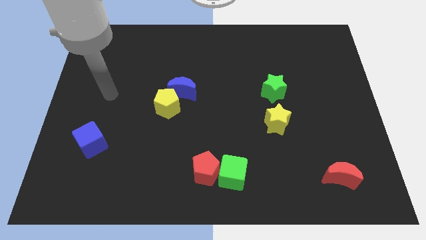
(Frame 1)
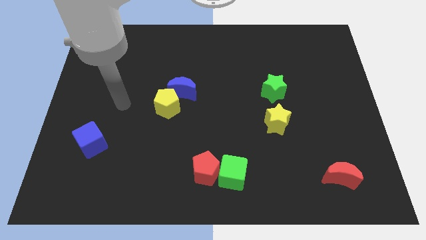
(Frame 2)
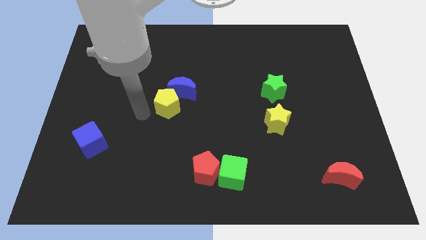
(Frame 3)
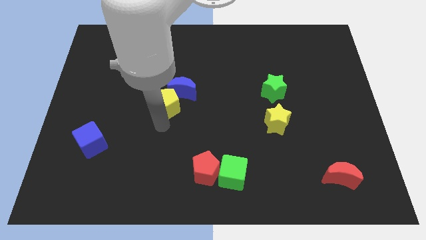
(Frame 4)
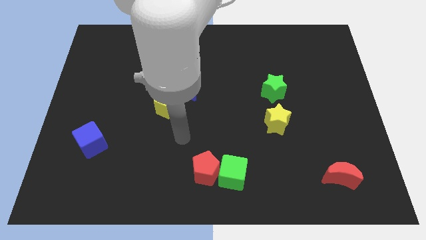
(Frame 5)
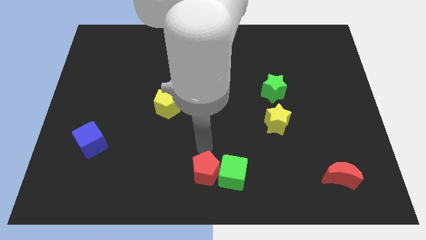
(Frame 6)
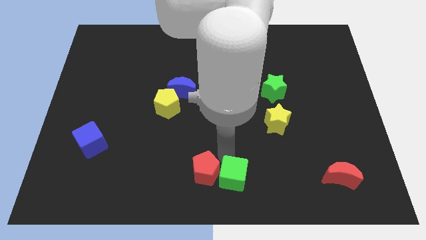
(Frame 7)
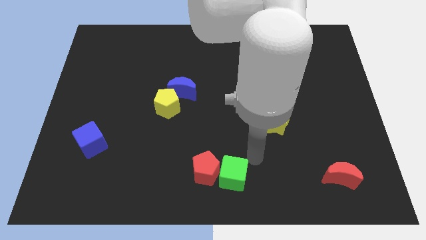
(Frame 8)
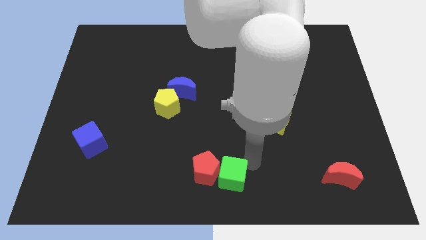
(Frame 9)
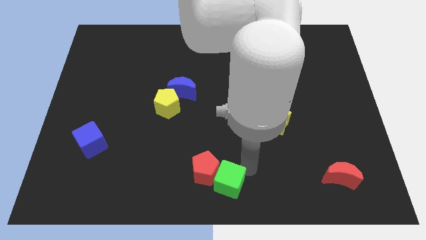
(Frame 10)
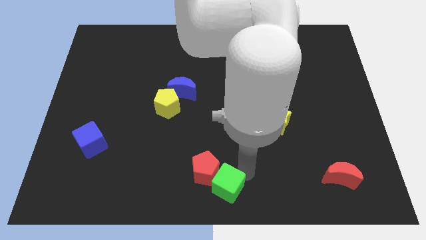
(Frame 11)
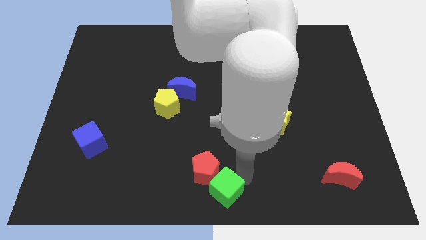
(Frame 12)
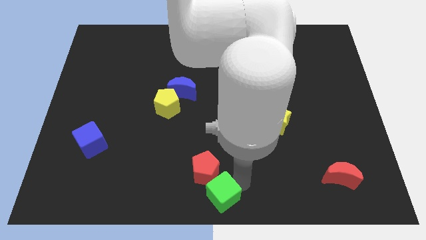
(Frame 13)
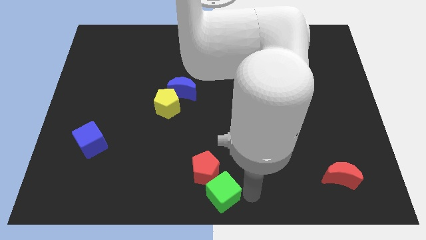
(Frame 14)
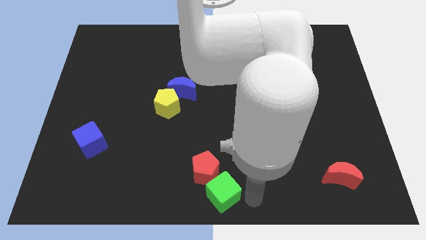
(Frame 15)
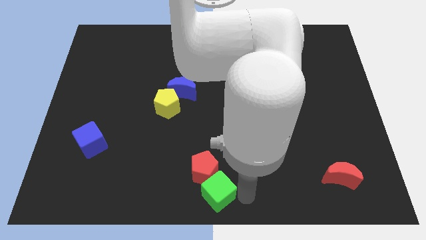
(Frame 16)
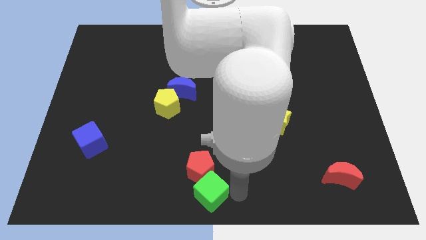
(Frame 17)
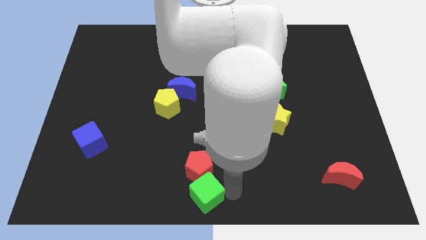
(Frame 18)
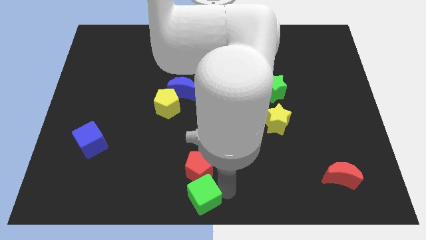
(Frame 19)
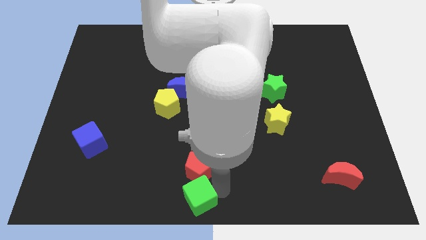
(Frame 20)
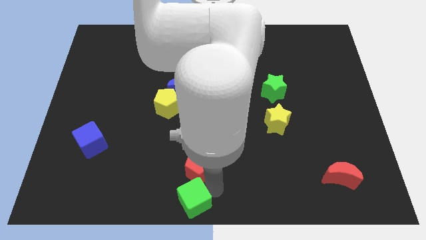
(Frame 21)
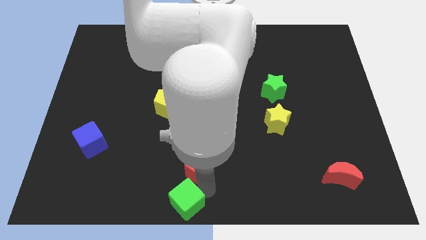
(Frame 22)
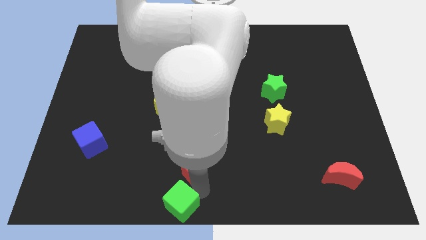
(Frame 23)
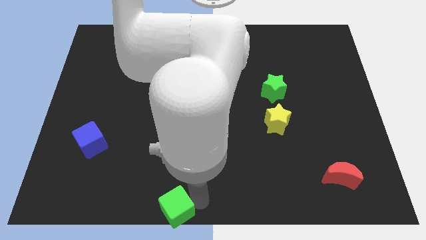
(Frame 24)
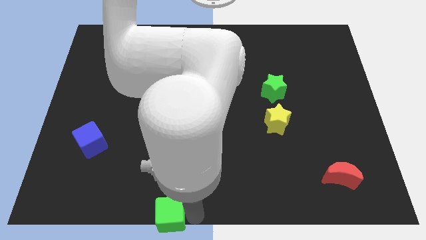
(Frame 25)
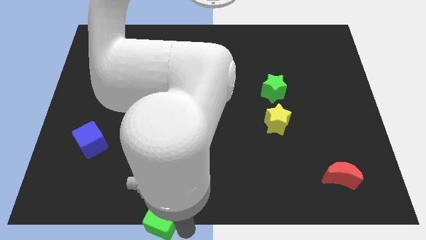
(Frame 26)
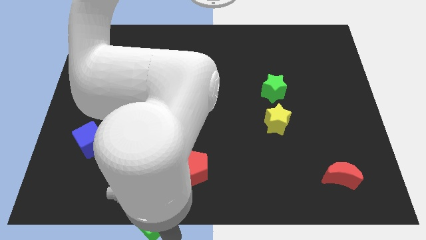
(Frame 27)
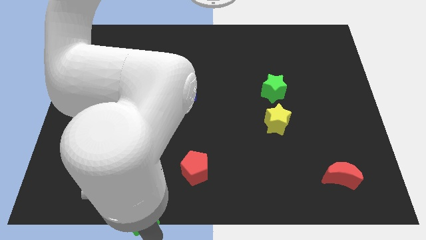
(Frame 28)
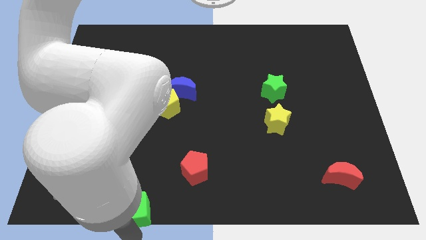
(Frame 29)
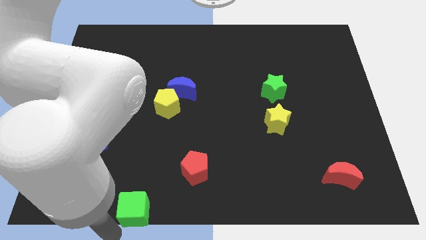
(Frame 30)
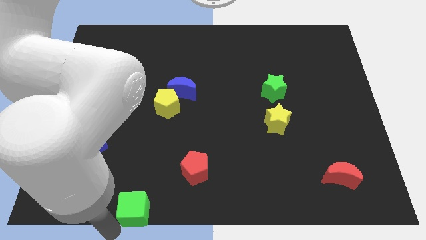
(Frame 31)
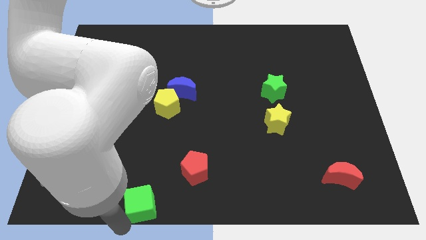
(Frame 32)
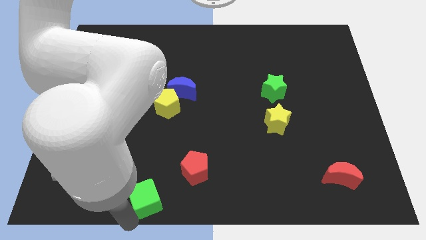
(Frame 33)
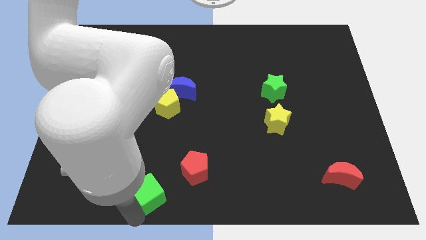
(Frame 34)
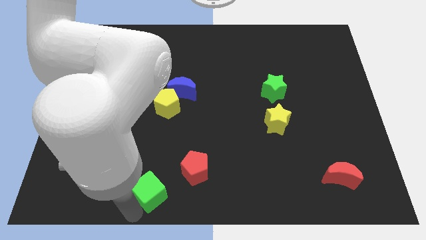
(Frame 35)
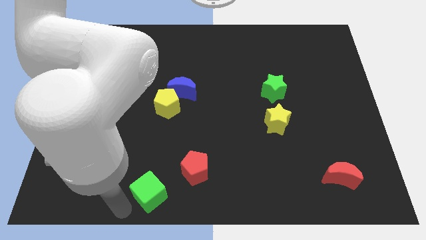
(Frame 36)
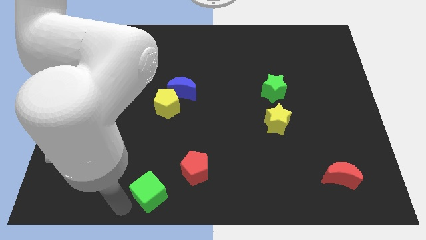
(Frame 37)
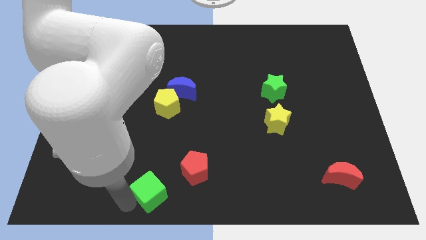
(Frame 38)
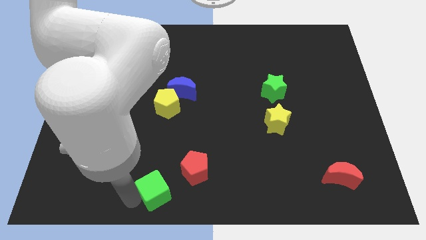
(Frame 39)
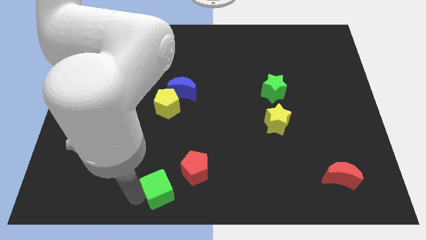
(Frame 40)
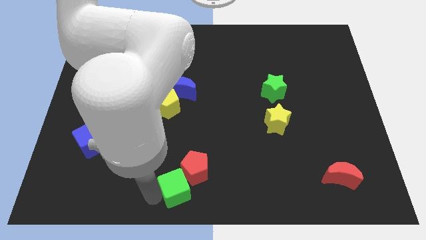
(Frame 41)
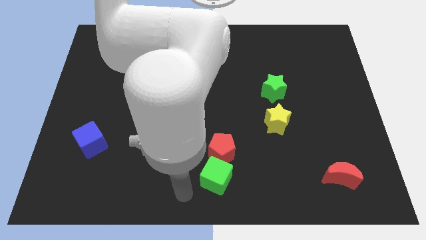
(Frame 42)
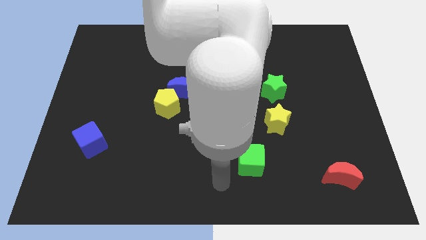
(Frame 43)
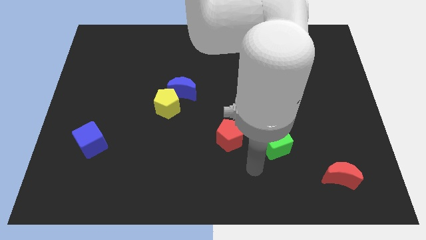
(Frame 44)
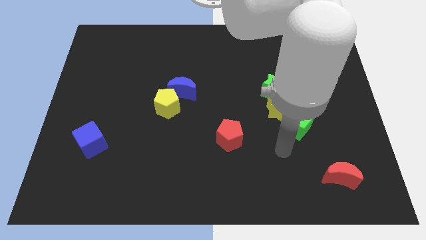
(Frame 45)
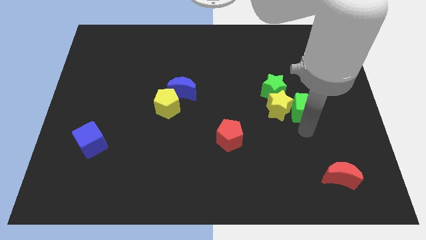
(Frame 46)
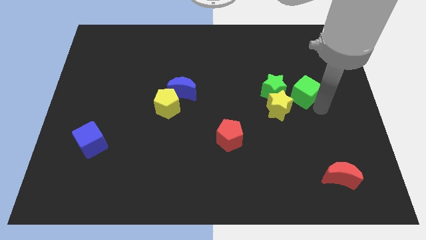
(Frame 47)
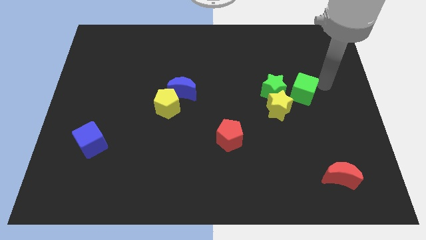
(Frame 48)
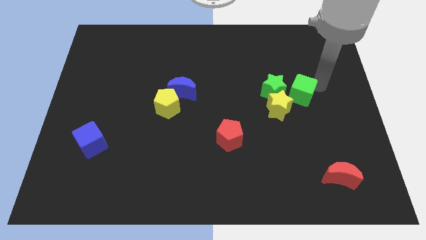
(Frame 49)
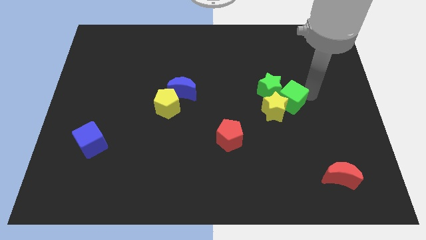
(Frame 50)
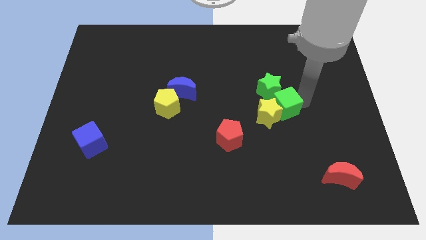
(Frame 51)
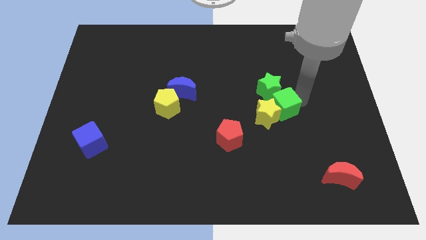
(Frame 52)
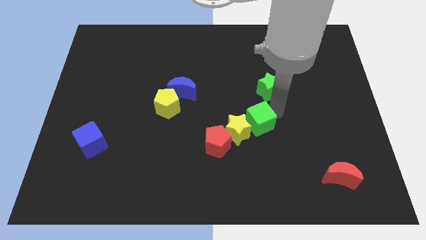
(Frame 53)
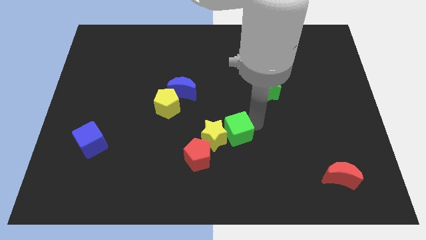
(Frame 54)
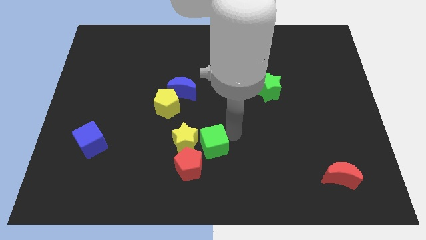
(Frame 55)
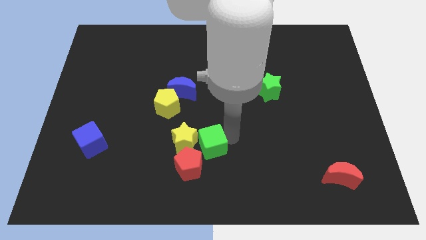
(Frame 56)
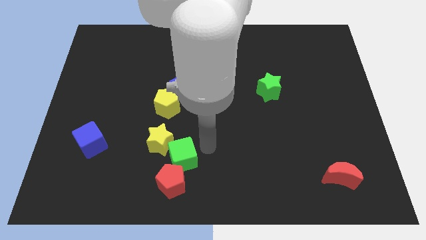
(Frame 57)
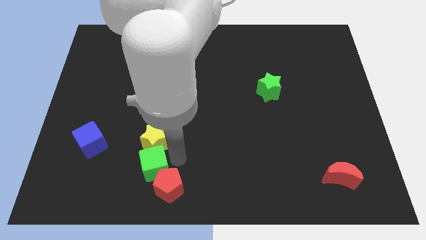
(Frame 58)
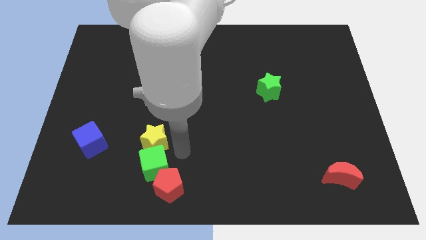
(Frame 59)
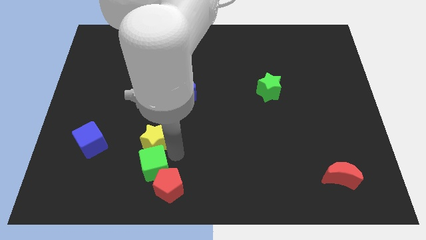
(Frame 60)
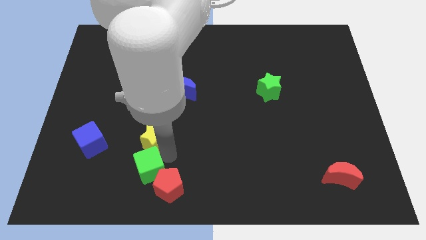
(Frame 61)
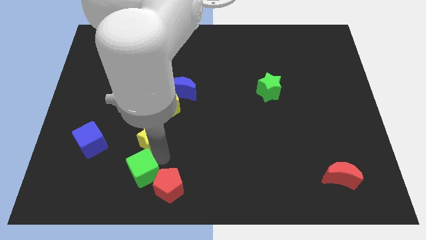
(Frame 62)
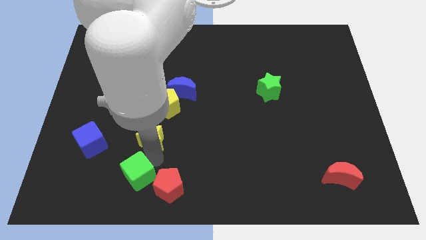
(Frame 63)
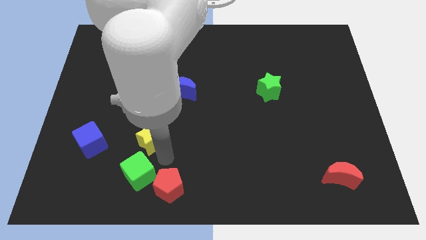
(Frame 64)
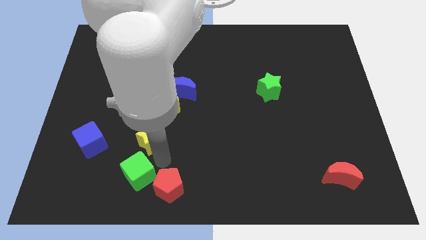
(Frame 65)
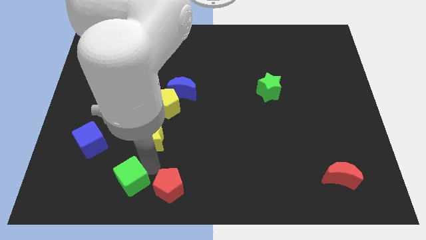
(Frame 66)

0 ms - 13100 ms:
slide the green cube to the left

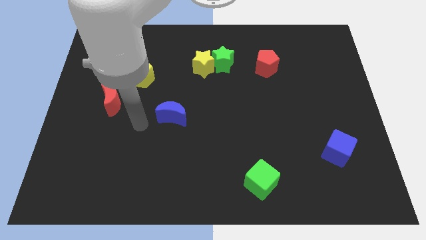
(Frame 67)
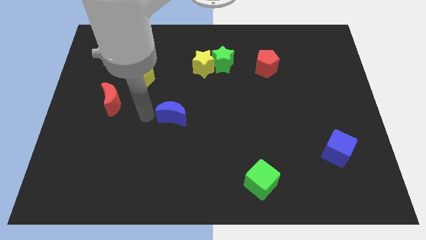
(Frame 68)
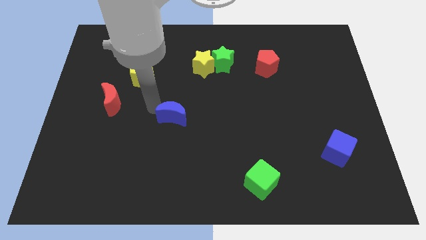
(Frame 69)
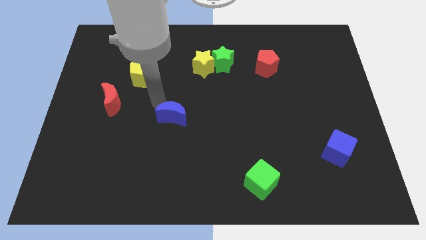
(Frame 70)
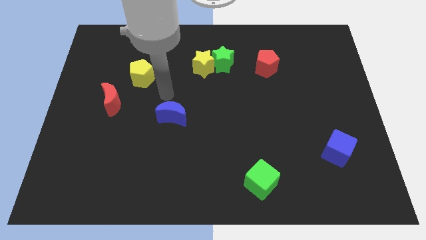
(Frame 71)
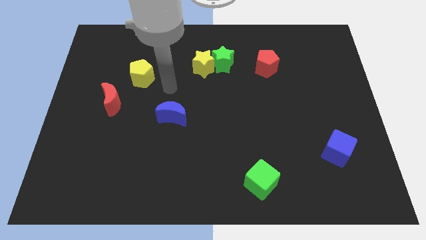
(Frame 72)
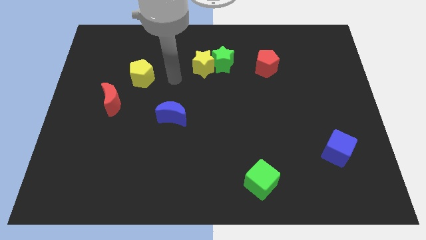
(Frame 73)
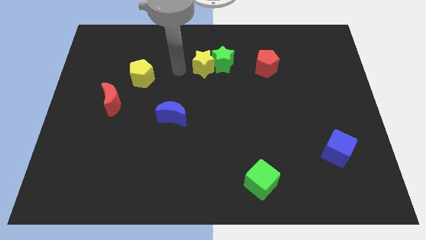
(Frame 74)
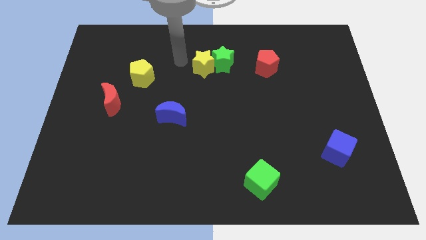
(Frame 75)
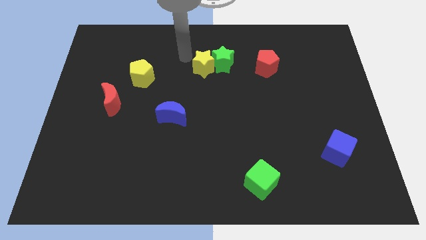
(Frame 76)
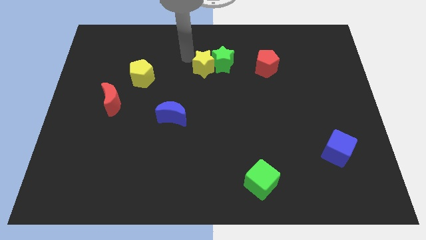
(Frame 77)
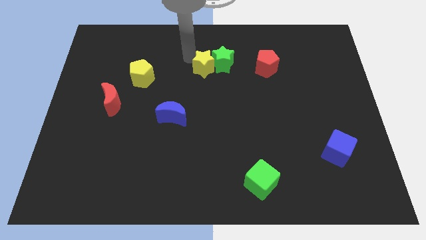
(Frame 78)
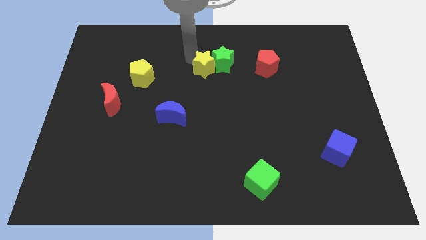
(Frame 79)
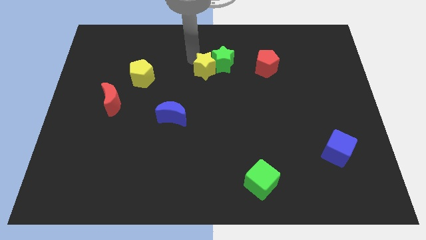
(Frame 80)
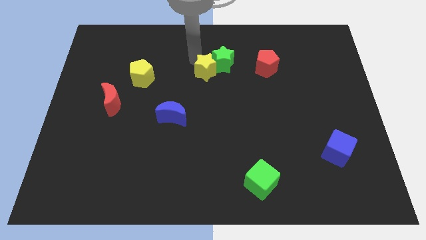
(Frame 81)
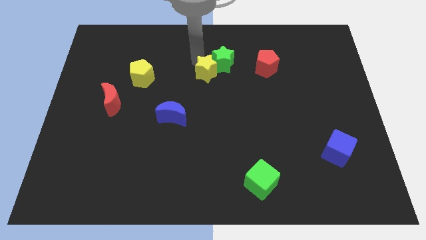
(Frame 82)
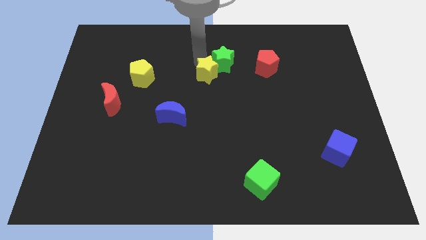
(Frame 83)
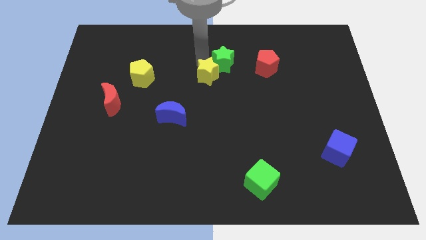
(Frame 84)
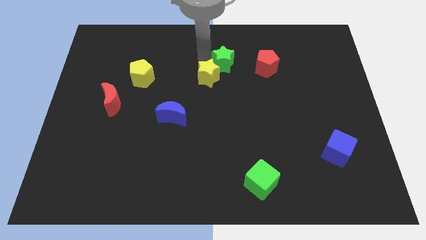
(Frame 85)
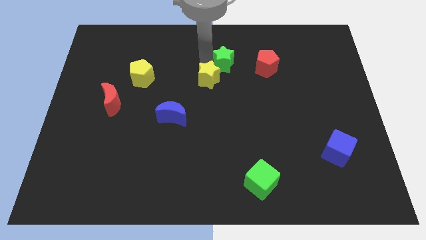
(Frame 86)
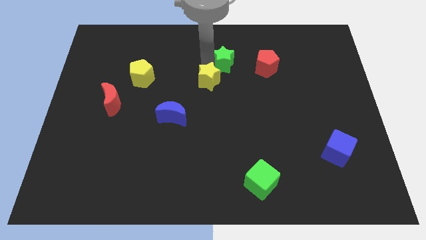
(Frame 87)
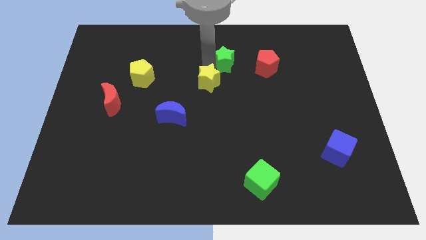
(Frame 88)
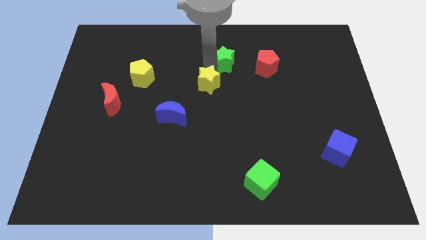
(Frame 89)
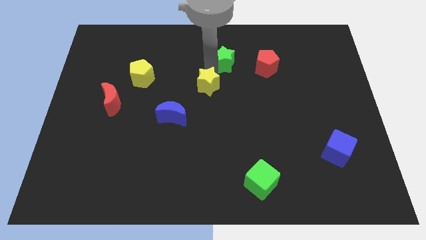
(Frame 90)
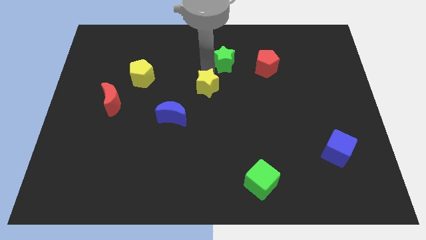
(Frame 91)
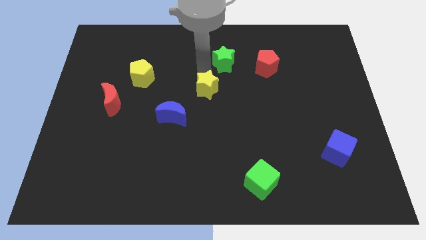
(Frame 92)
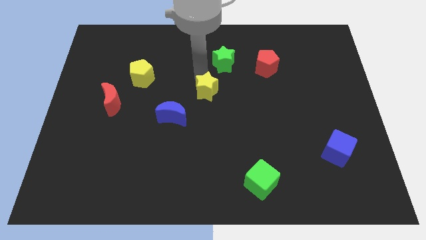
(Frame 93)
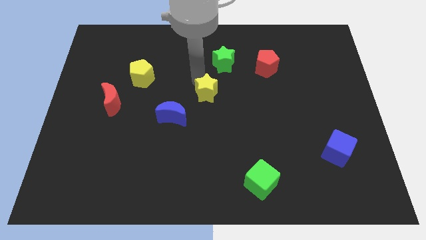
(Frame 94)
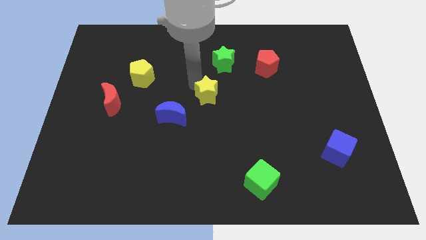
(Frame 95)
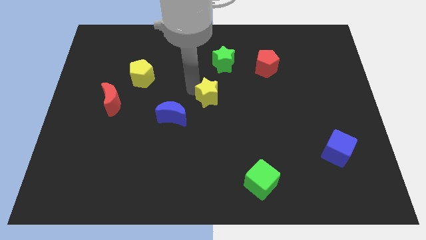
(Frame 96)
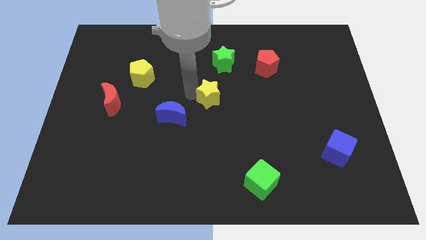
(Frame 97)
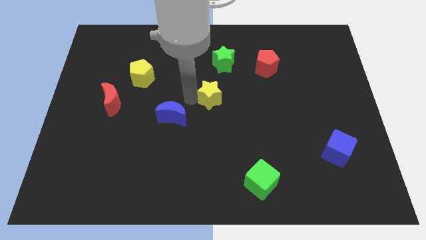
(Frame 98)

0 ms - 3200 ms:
push the yellow star diagonally down and right slightly
